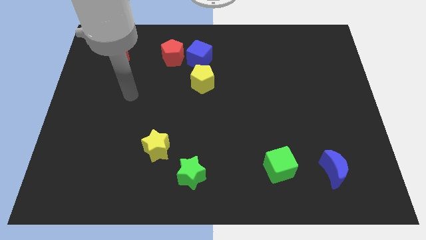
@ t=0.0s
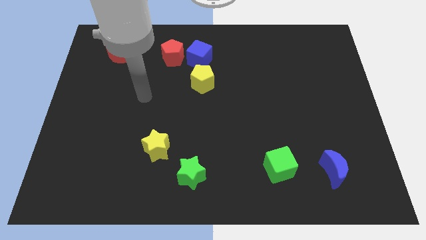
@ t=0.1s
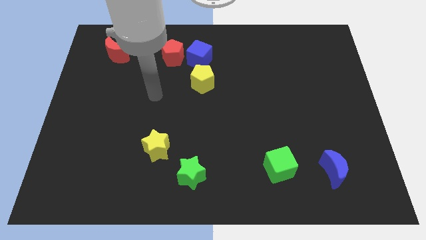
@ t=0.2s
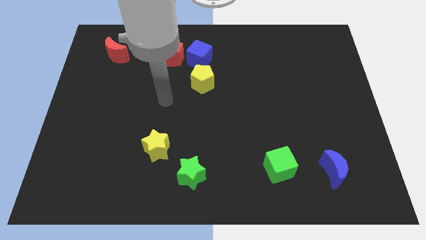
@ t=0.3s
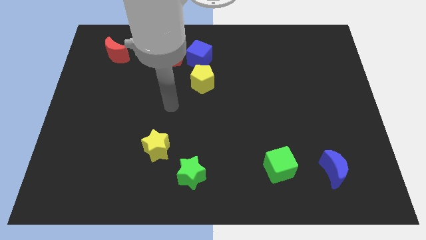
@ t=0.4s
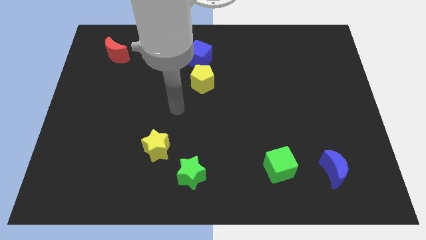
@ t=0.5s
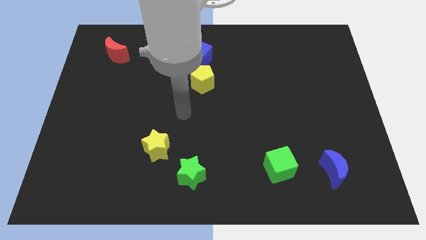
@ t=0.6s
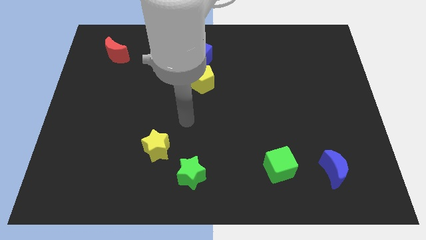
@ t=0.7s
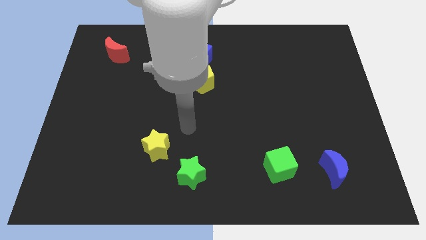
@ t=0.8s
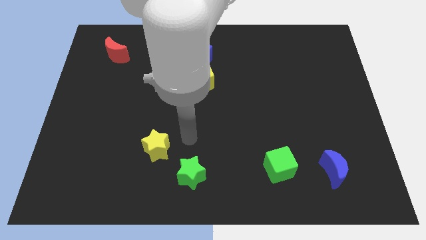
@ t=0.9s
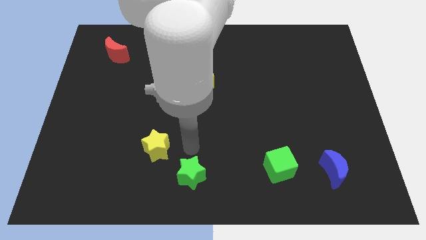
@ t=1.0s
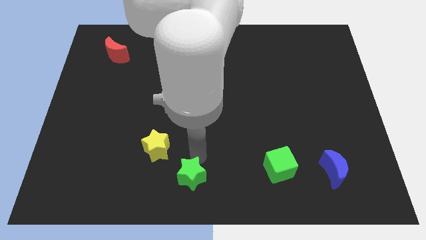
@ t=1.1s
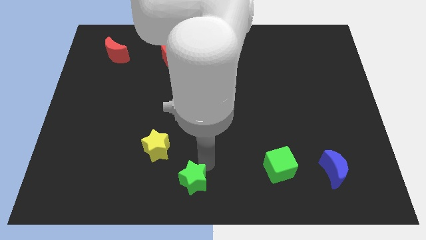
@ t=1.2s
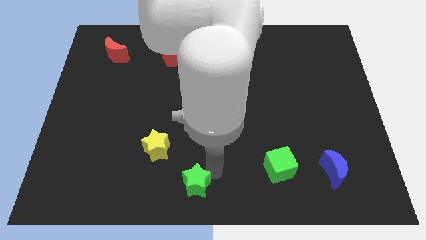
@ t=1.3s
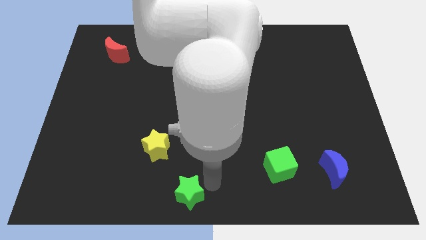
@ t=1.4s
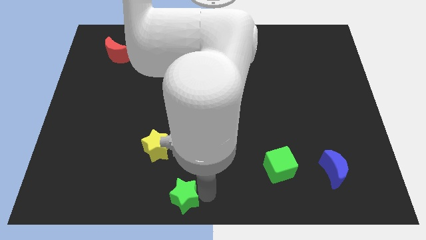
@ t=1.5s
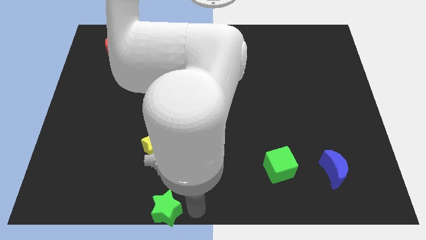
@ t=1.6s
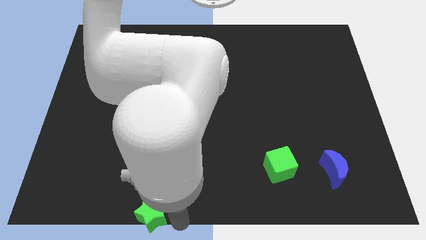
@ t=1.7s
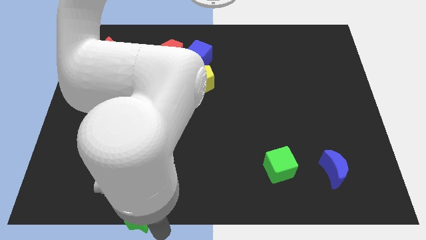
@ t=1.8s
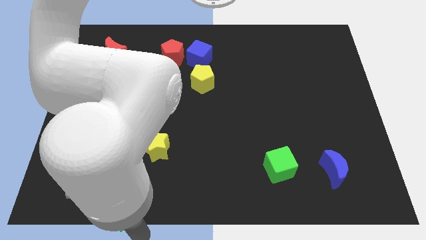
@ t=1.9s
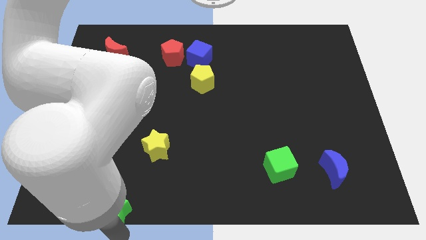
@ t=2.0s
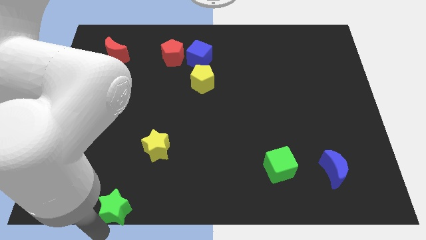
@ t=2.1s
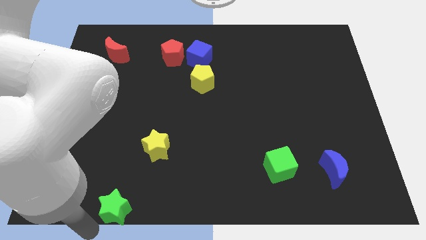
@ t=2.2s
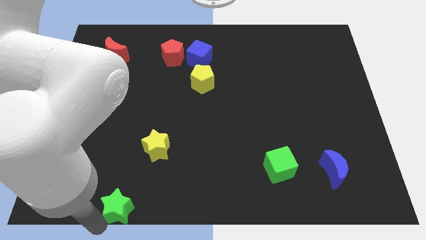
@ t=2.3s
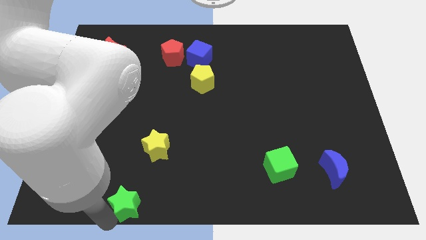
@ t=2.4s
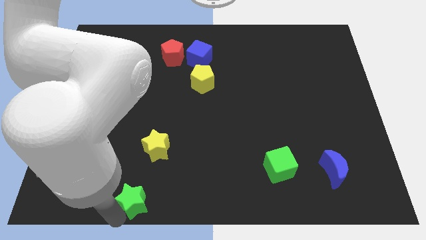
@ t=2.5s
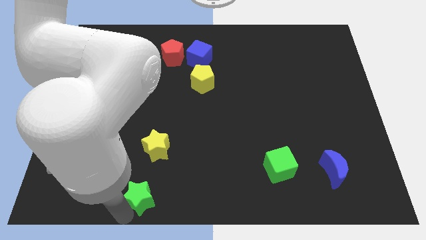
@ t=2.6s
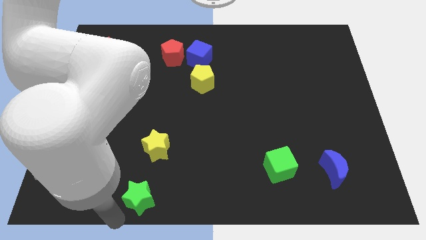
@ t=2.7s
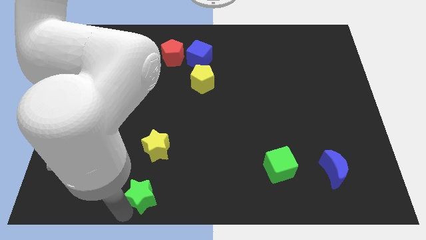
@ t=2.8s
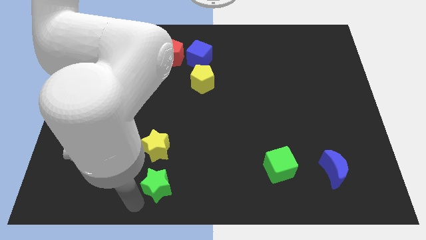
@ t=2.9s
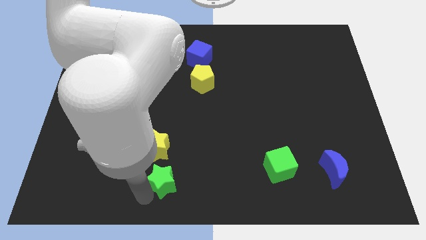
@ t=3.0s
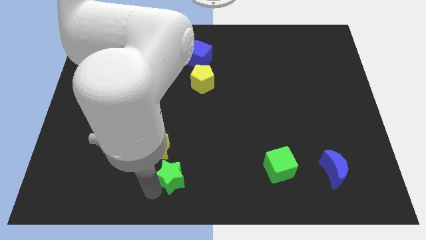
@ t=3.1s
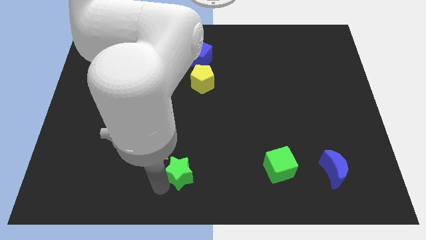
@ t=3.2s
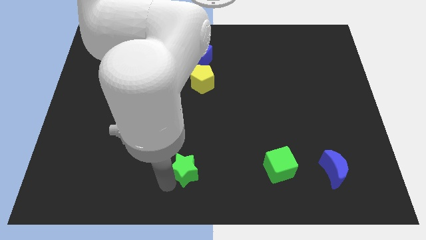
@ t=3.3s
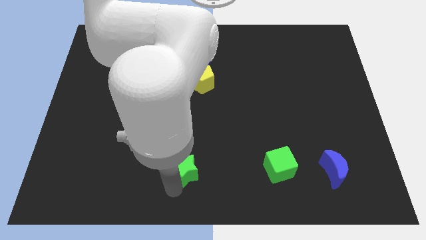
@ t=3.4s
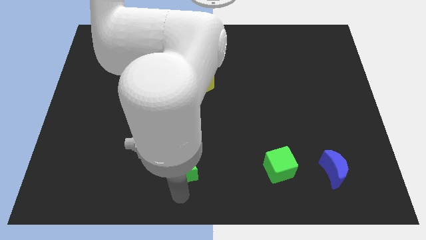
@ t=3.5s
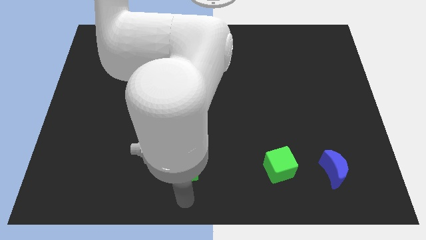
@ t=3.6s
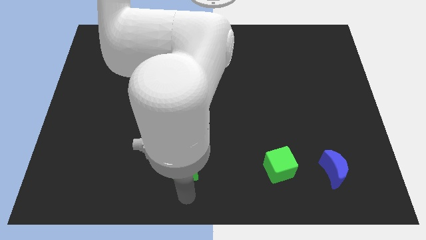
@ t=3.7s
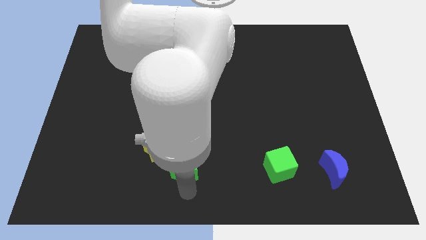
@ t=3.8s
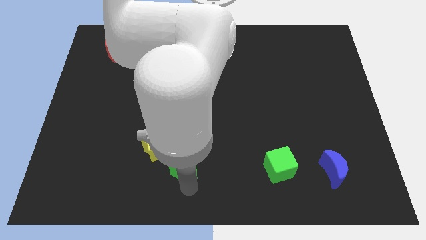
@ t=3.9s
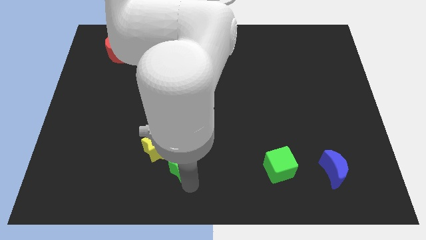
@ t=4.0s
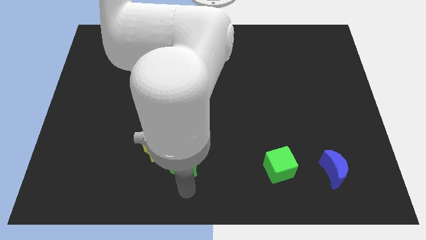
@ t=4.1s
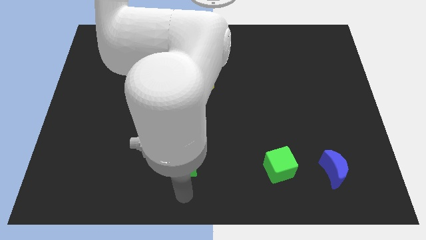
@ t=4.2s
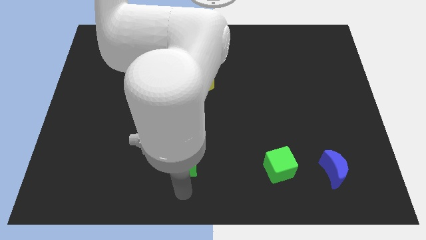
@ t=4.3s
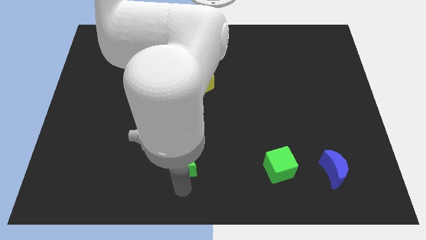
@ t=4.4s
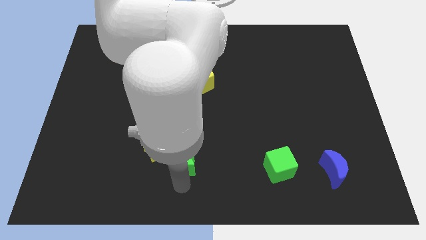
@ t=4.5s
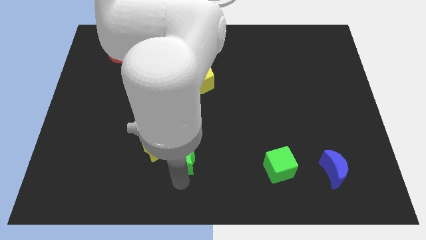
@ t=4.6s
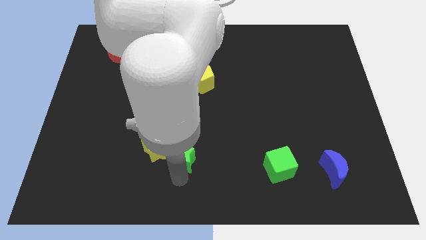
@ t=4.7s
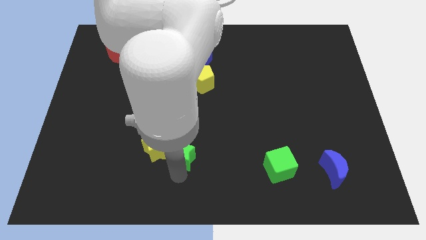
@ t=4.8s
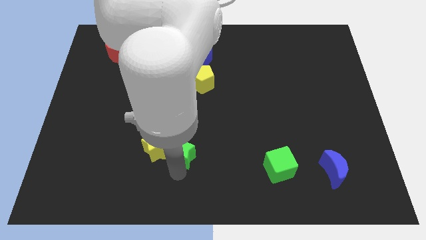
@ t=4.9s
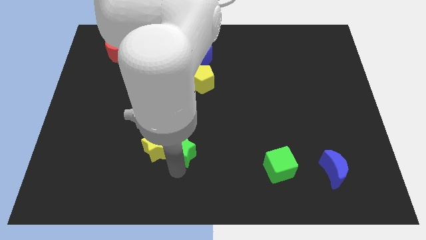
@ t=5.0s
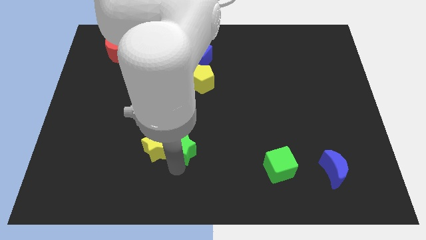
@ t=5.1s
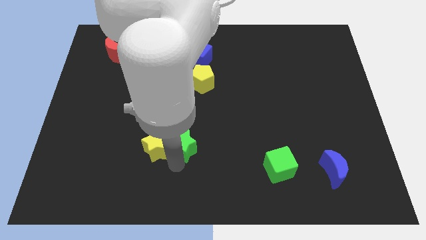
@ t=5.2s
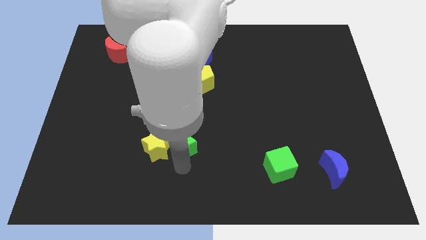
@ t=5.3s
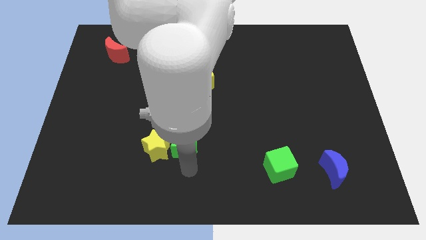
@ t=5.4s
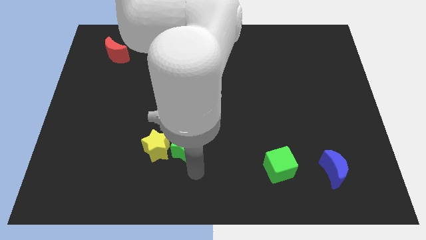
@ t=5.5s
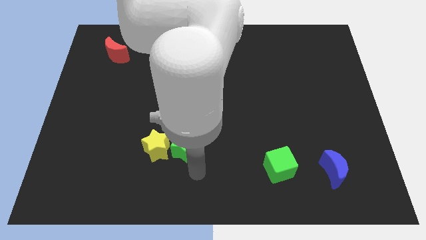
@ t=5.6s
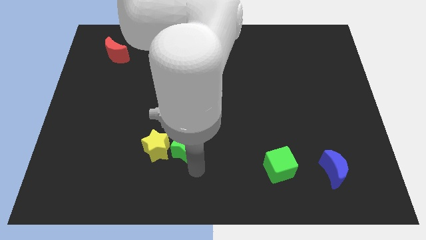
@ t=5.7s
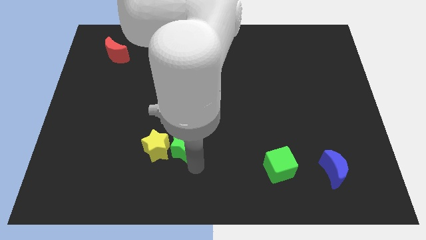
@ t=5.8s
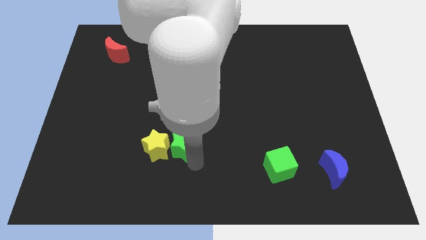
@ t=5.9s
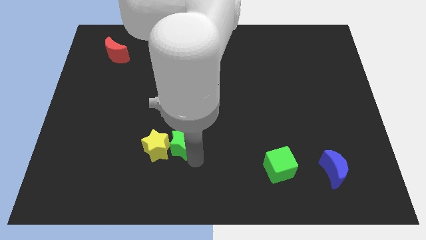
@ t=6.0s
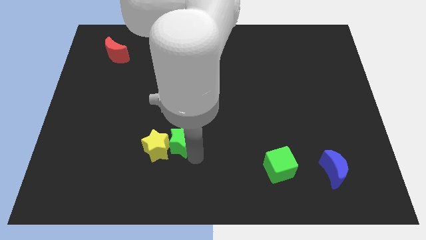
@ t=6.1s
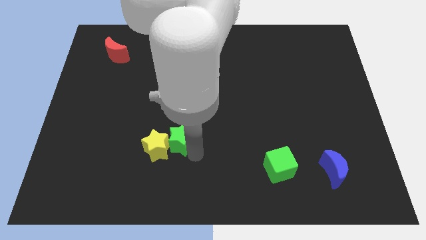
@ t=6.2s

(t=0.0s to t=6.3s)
slightly slide the green star up and to the left

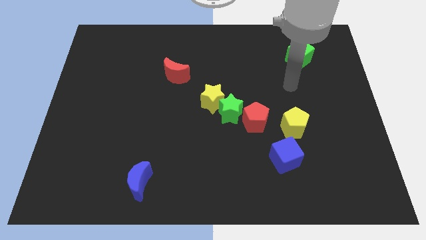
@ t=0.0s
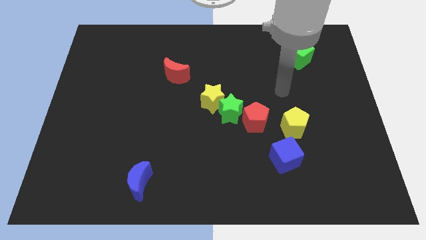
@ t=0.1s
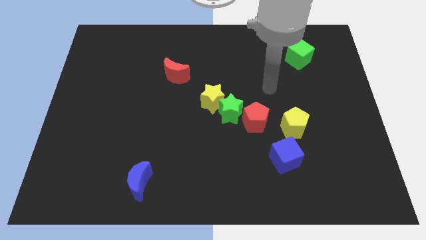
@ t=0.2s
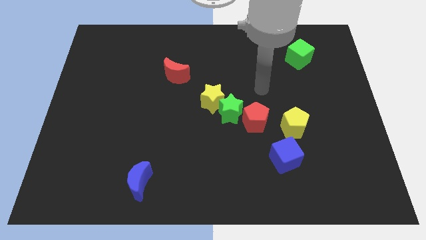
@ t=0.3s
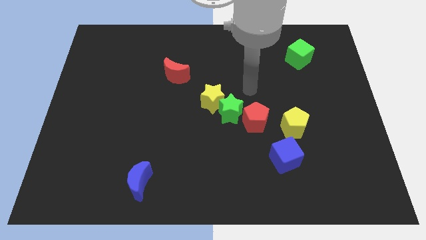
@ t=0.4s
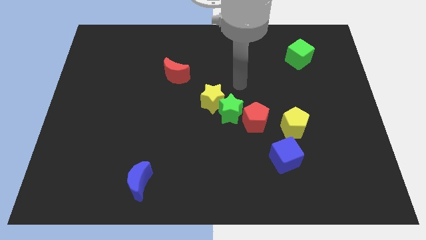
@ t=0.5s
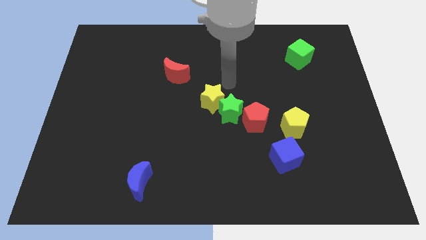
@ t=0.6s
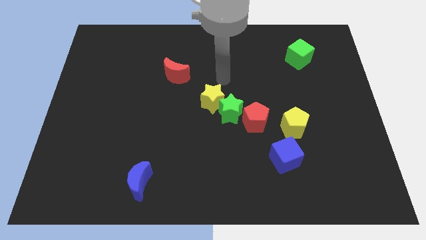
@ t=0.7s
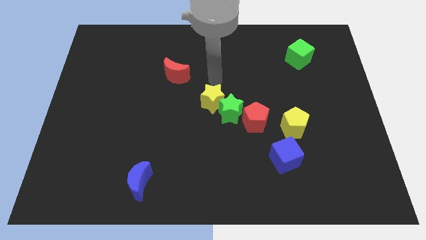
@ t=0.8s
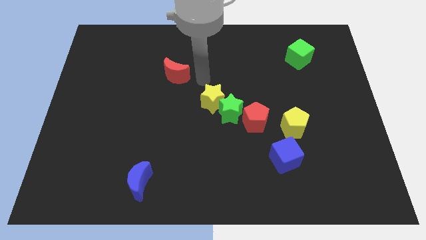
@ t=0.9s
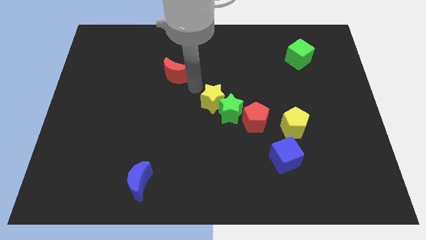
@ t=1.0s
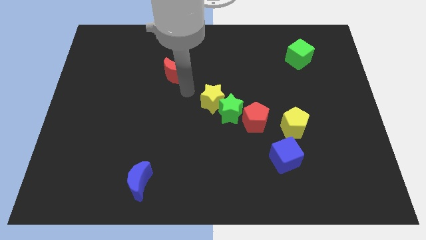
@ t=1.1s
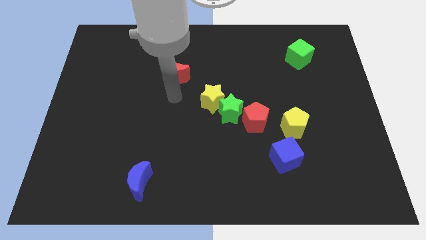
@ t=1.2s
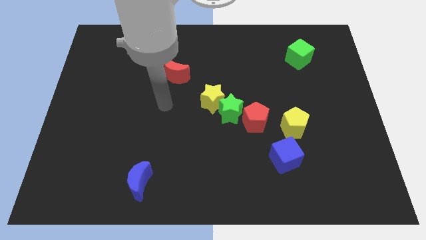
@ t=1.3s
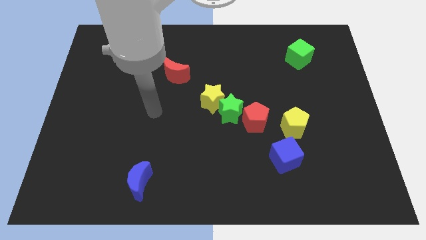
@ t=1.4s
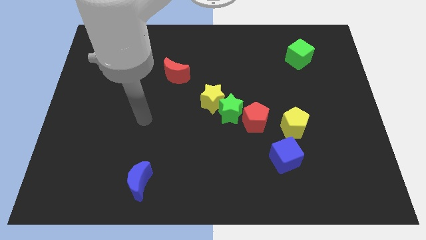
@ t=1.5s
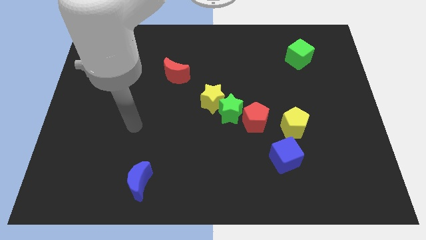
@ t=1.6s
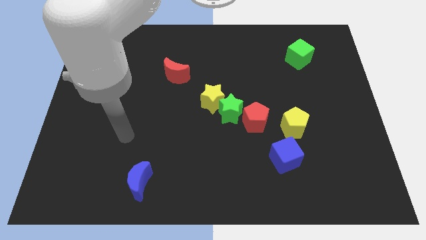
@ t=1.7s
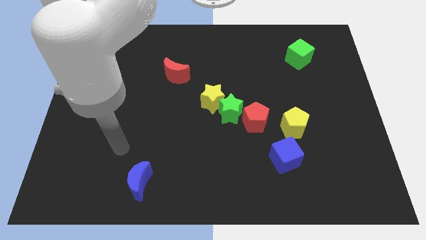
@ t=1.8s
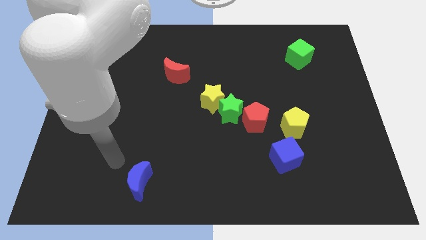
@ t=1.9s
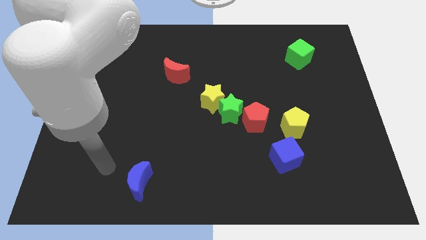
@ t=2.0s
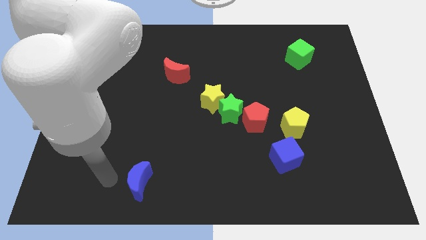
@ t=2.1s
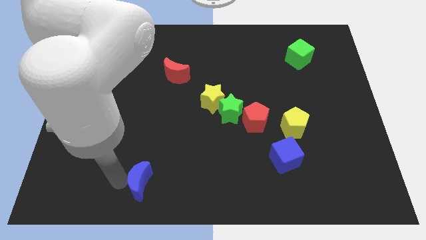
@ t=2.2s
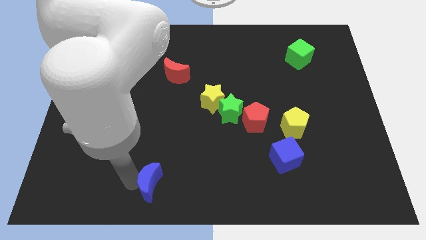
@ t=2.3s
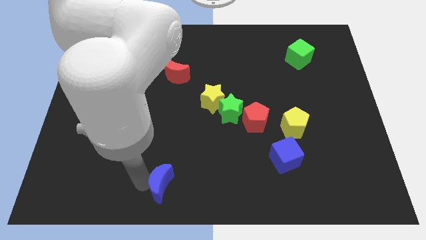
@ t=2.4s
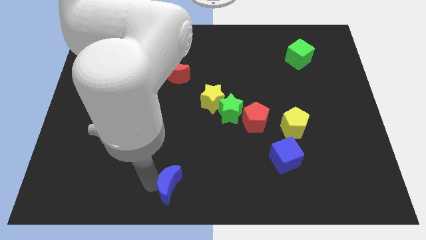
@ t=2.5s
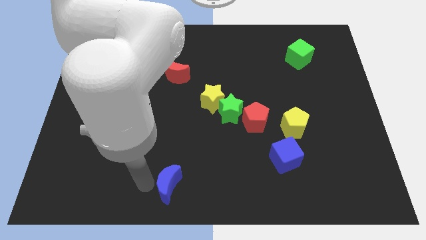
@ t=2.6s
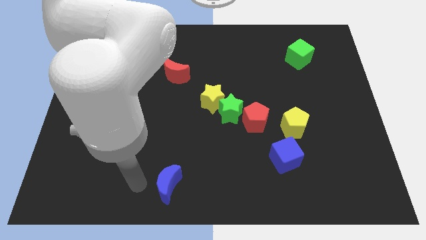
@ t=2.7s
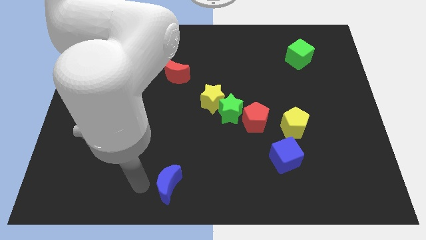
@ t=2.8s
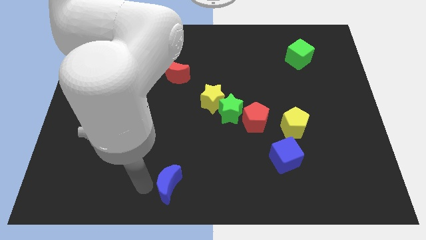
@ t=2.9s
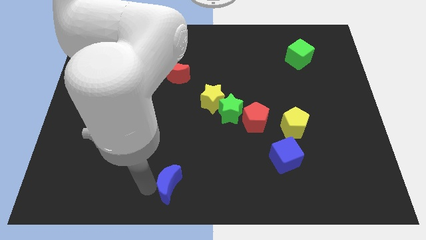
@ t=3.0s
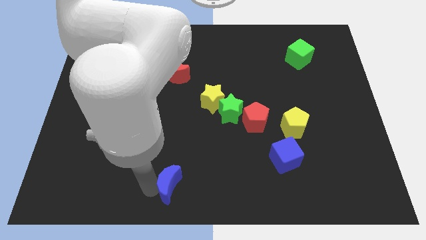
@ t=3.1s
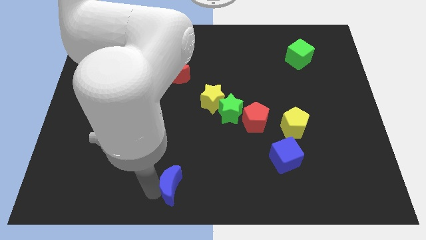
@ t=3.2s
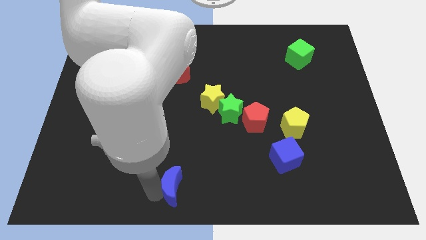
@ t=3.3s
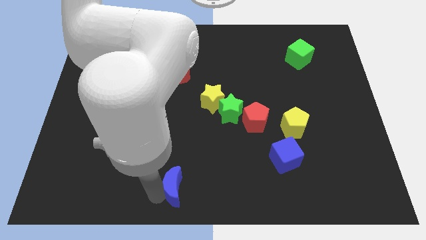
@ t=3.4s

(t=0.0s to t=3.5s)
slide the blue moon a bit right
